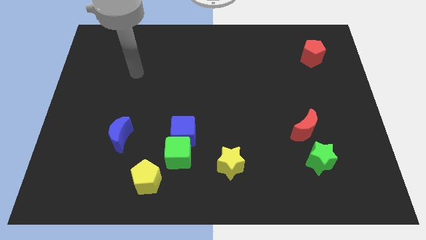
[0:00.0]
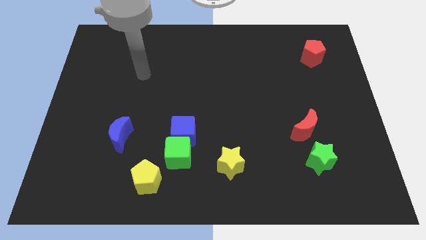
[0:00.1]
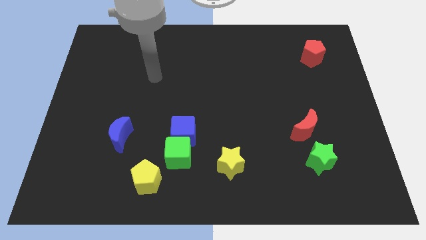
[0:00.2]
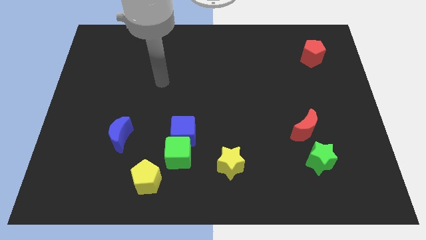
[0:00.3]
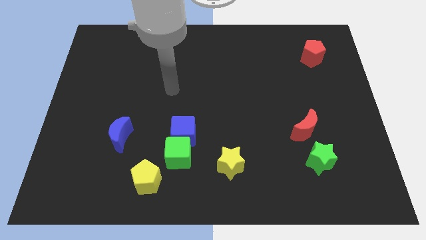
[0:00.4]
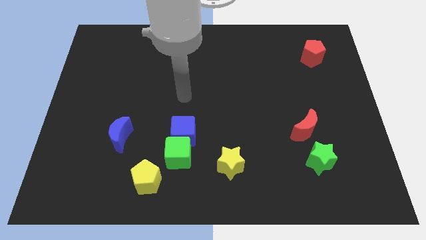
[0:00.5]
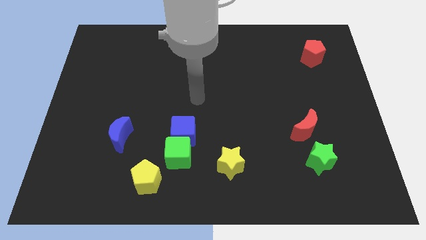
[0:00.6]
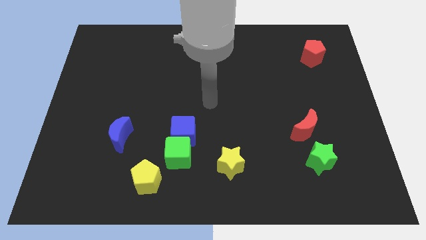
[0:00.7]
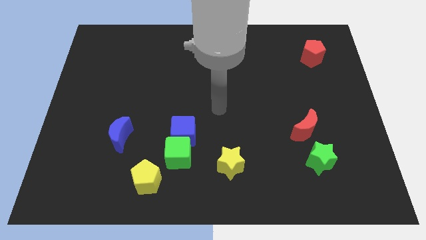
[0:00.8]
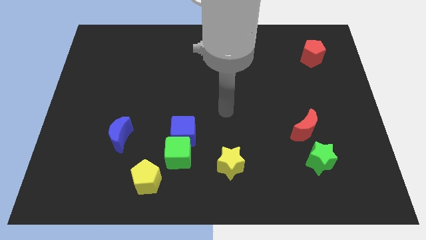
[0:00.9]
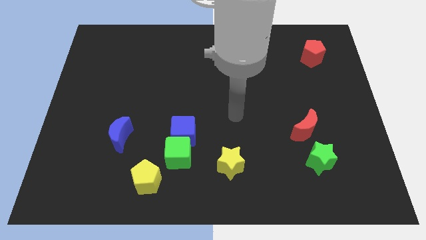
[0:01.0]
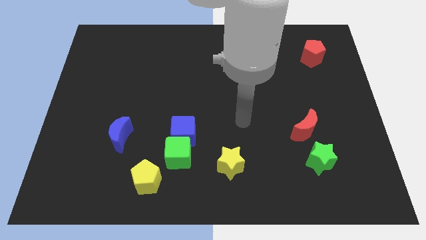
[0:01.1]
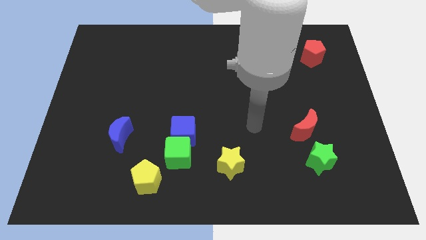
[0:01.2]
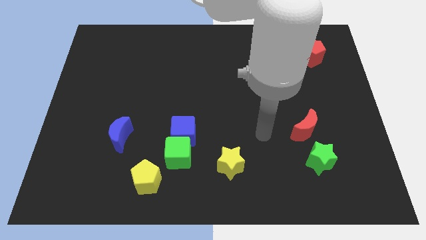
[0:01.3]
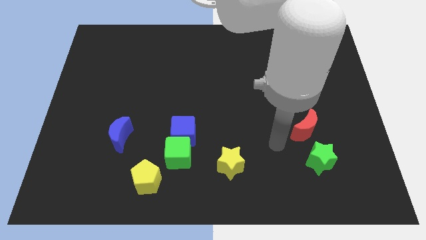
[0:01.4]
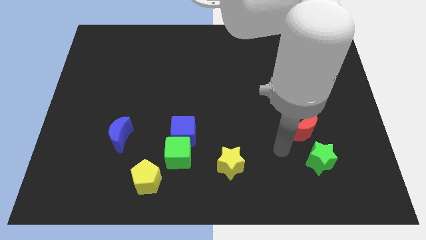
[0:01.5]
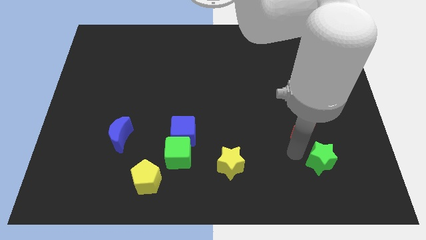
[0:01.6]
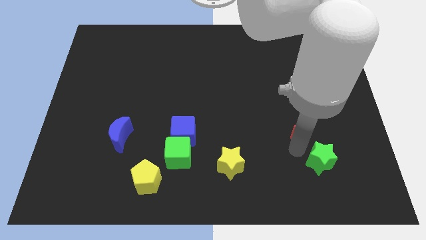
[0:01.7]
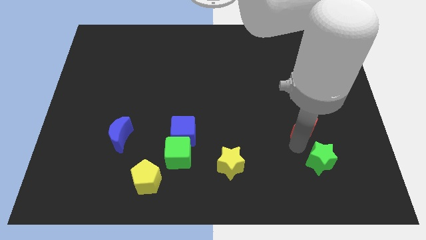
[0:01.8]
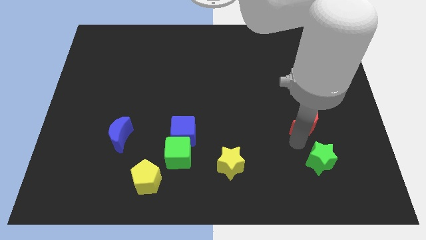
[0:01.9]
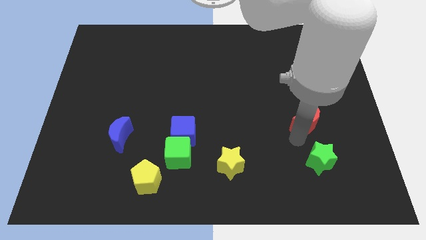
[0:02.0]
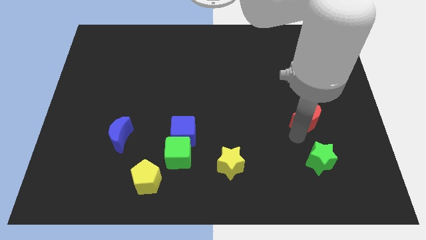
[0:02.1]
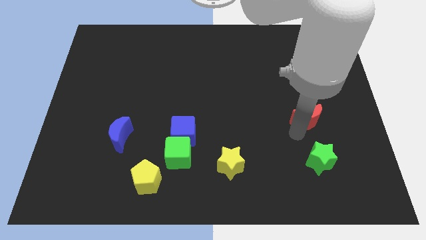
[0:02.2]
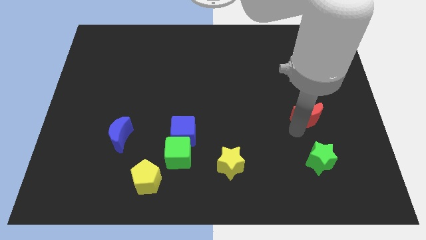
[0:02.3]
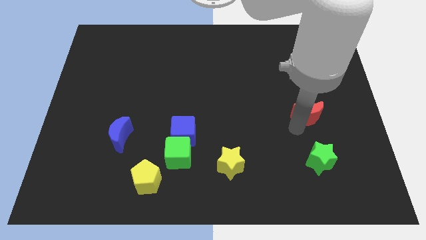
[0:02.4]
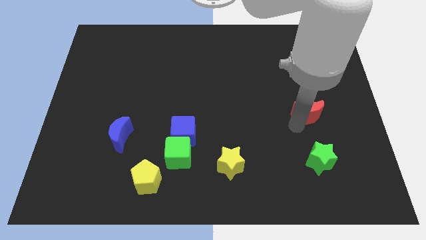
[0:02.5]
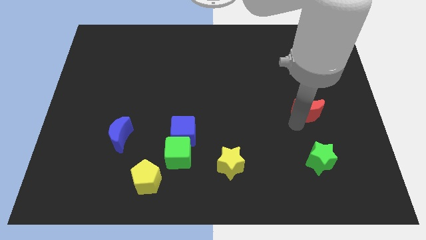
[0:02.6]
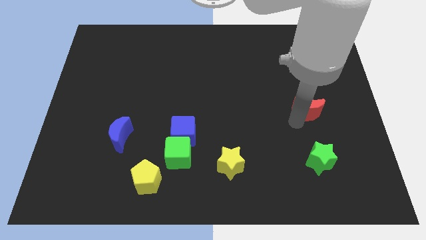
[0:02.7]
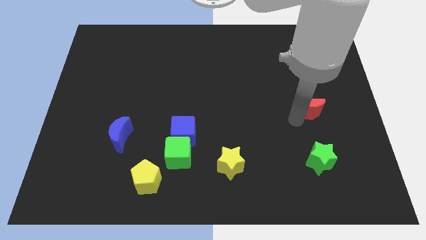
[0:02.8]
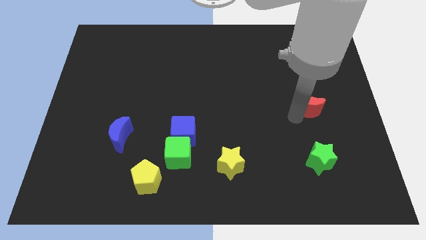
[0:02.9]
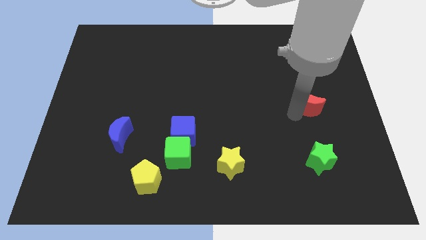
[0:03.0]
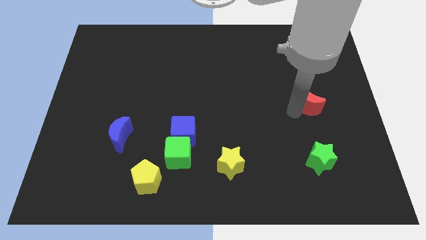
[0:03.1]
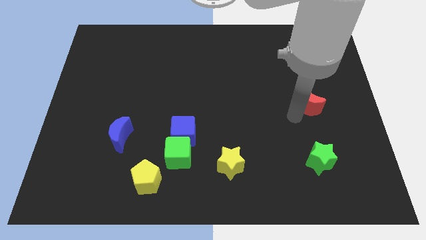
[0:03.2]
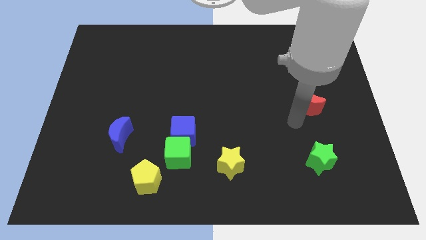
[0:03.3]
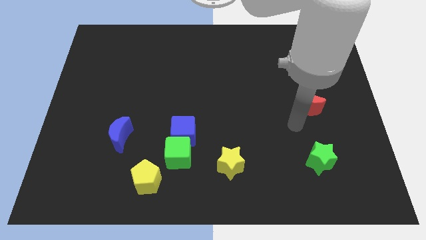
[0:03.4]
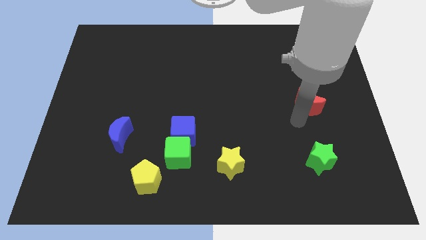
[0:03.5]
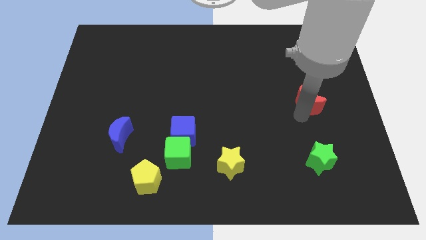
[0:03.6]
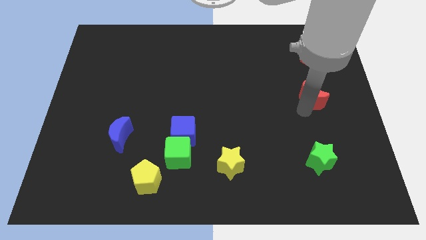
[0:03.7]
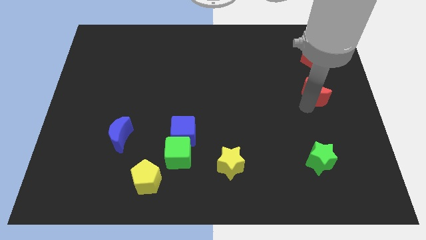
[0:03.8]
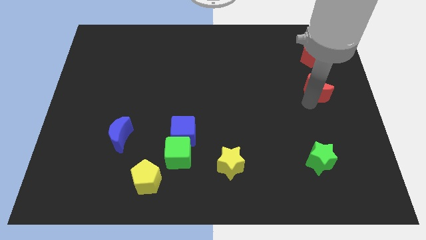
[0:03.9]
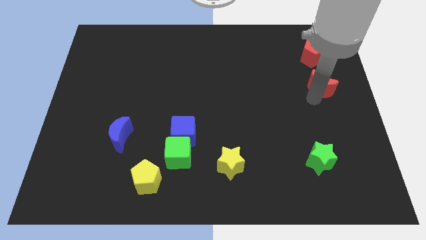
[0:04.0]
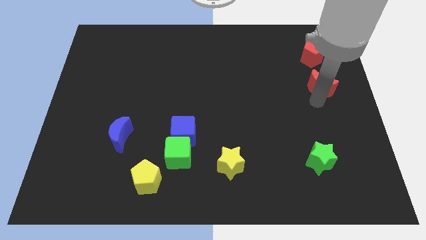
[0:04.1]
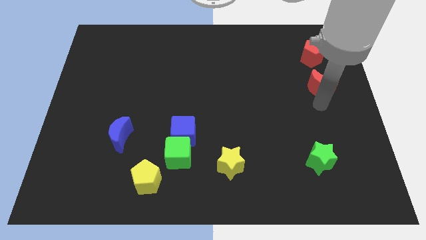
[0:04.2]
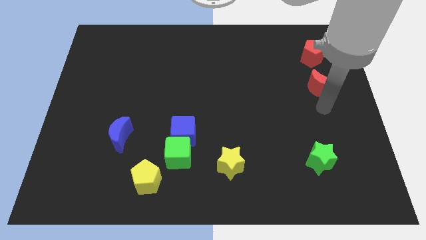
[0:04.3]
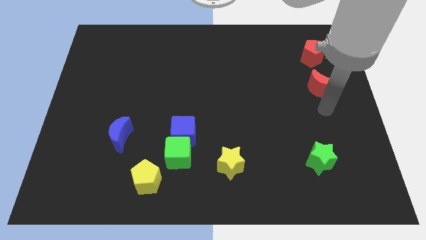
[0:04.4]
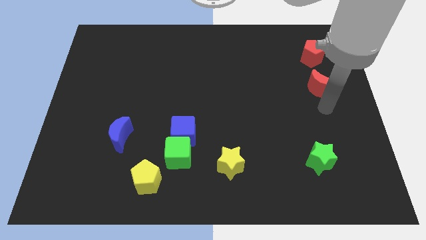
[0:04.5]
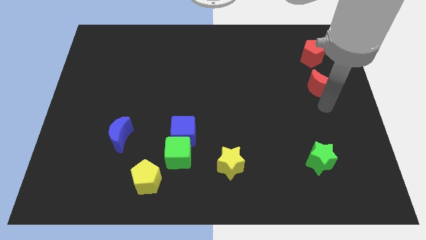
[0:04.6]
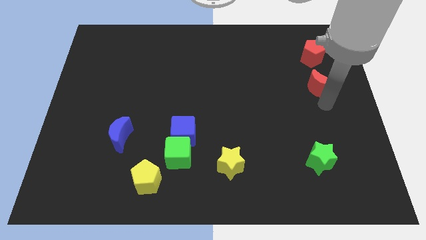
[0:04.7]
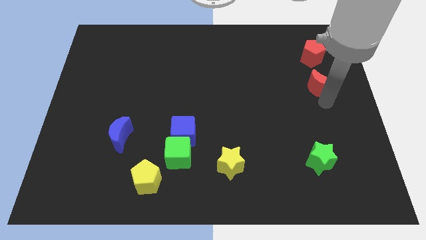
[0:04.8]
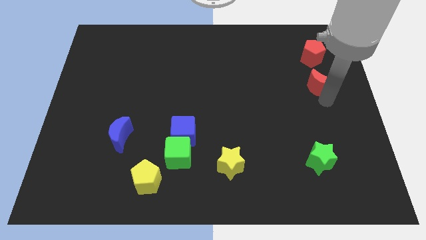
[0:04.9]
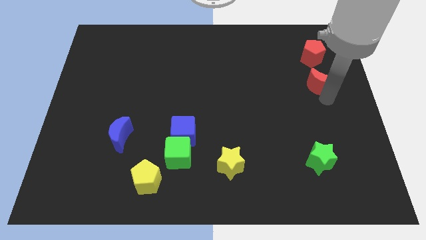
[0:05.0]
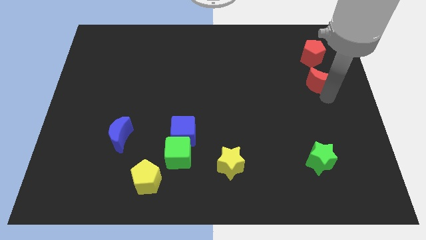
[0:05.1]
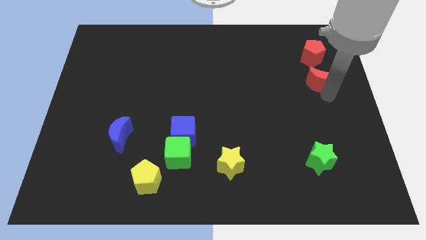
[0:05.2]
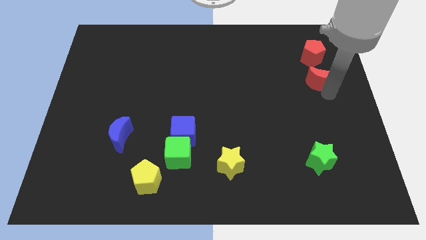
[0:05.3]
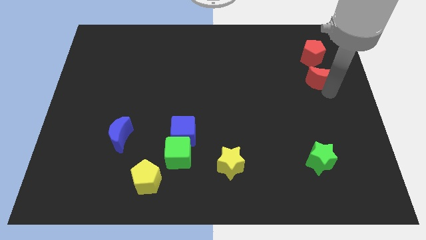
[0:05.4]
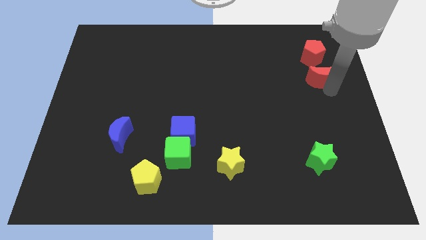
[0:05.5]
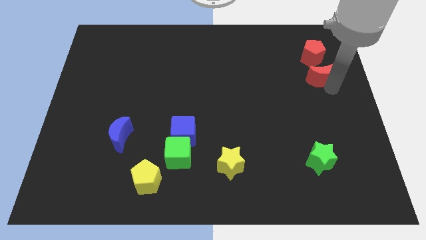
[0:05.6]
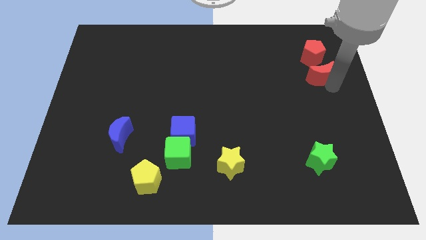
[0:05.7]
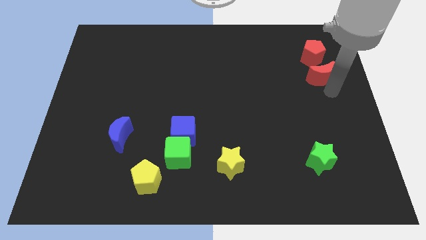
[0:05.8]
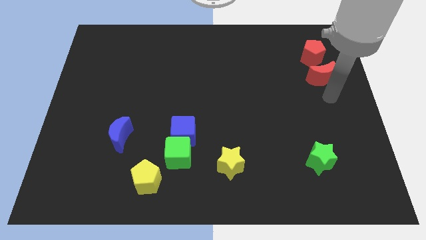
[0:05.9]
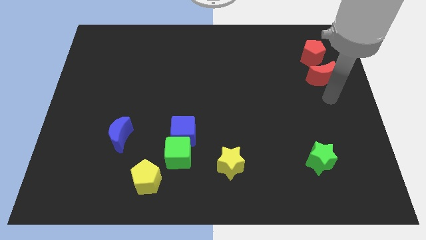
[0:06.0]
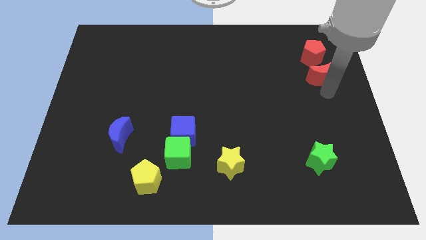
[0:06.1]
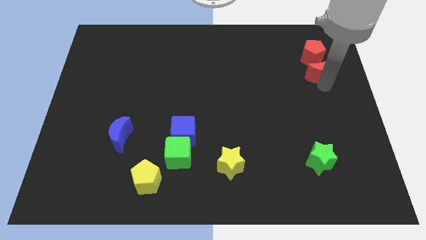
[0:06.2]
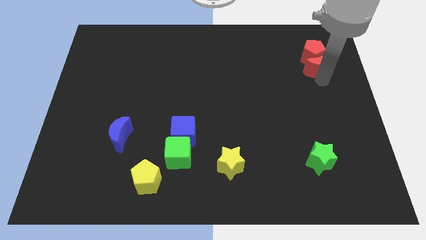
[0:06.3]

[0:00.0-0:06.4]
push the red moon close to the red pentagon

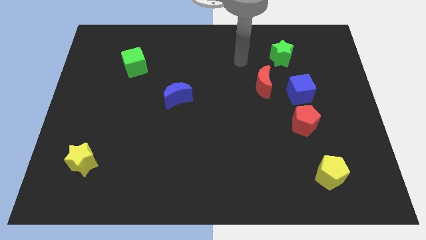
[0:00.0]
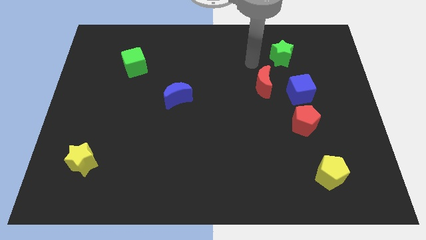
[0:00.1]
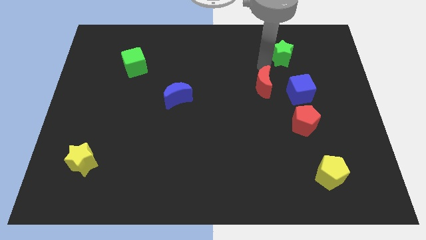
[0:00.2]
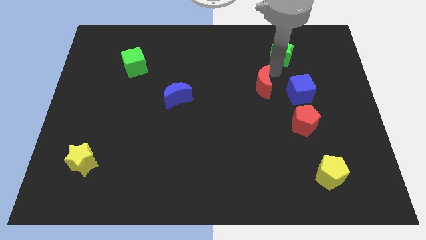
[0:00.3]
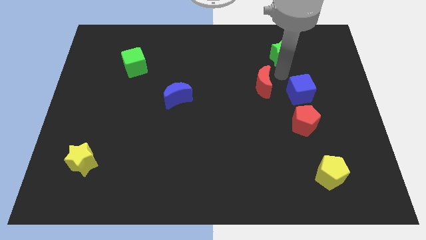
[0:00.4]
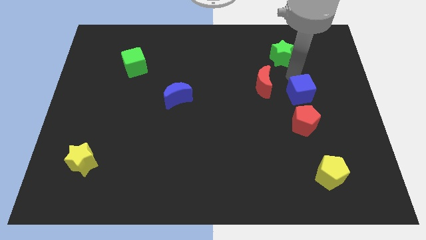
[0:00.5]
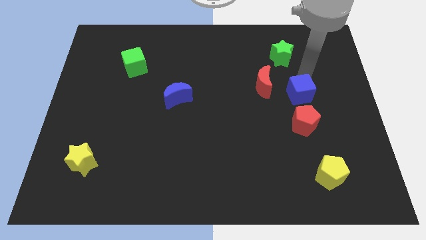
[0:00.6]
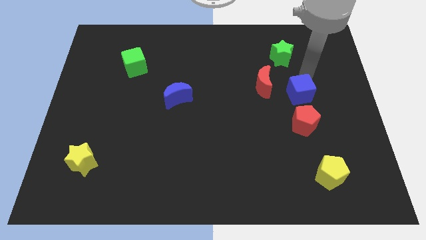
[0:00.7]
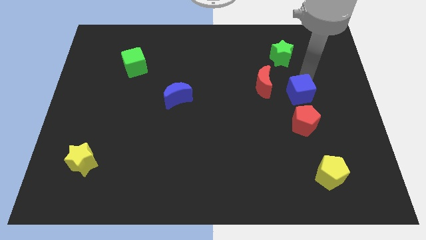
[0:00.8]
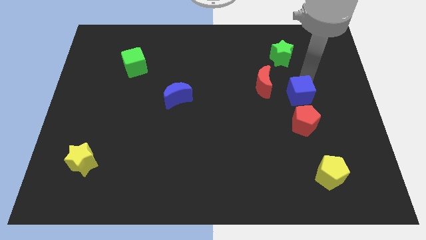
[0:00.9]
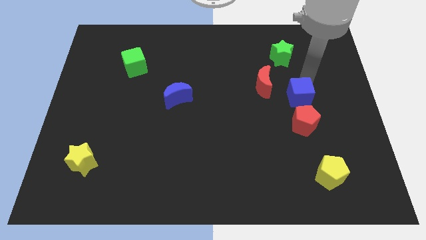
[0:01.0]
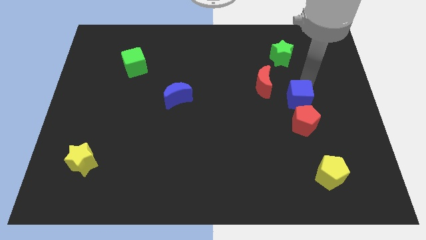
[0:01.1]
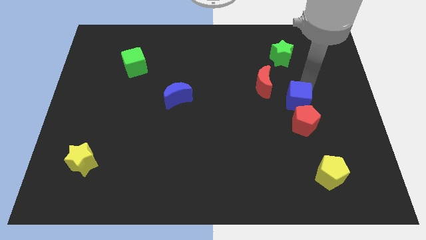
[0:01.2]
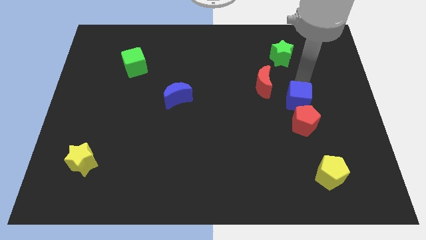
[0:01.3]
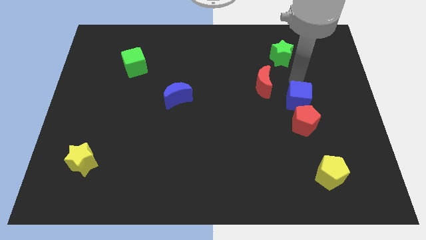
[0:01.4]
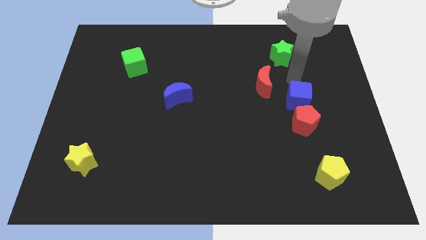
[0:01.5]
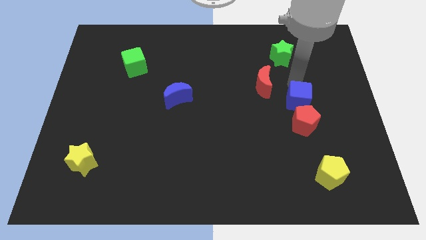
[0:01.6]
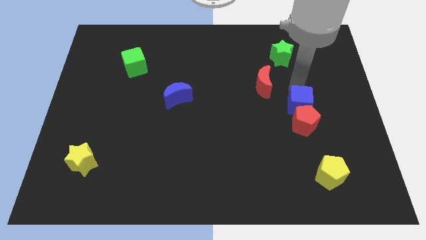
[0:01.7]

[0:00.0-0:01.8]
push the blue cube to the red pentagon
